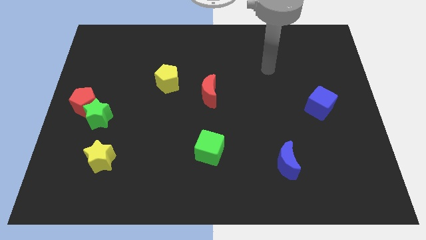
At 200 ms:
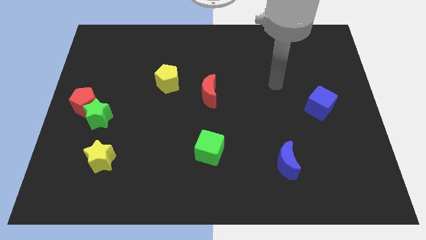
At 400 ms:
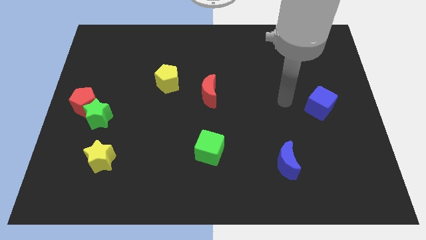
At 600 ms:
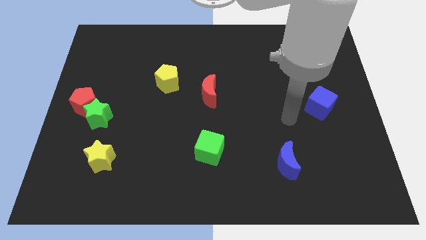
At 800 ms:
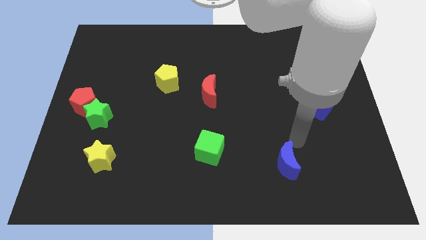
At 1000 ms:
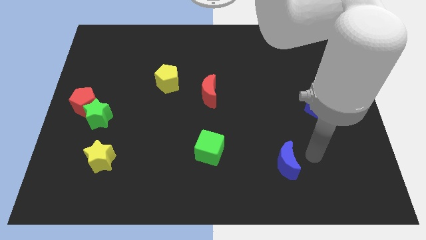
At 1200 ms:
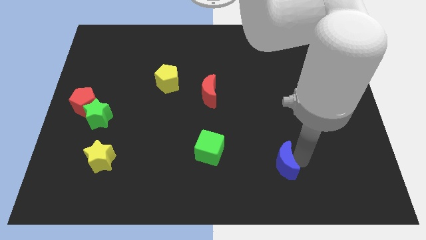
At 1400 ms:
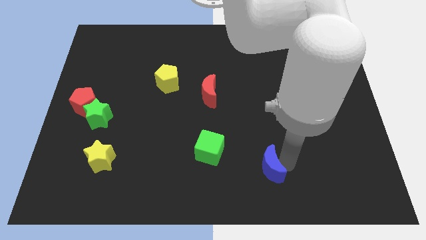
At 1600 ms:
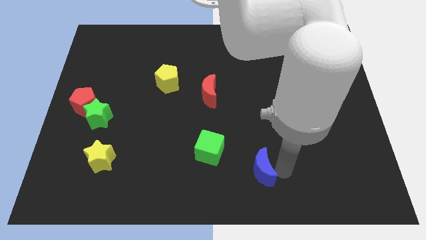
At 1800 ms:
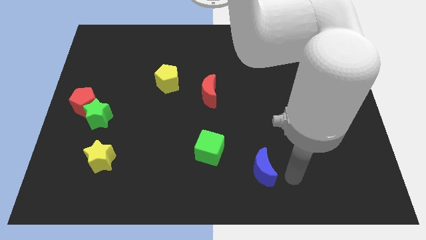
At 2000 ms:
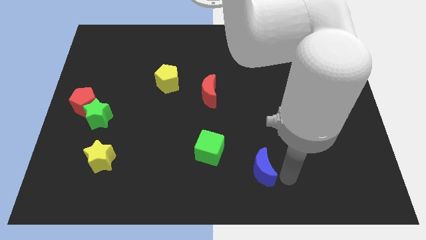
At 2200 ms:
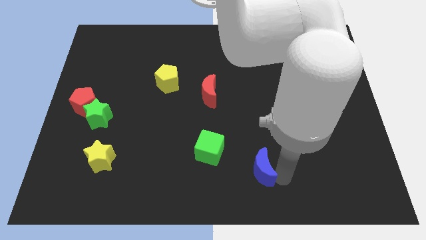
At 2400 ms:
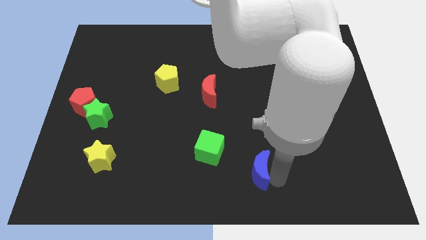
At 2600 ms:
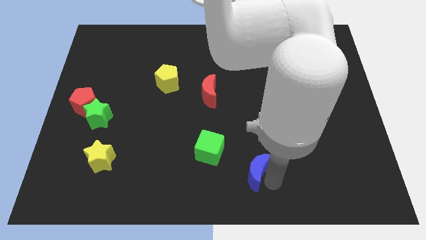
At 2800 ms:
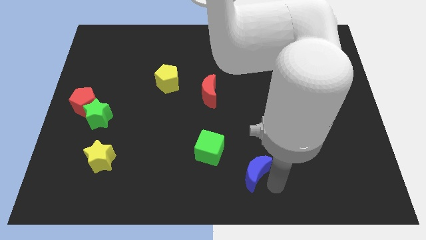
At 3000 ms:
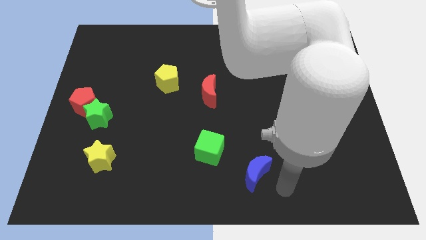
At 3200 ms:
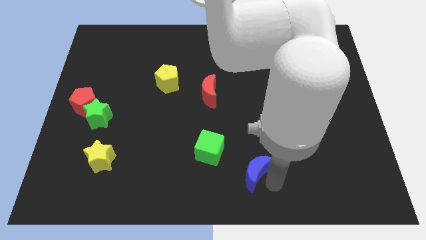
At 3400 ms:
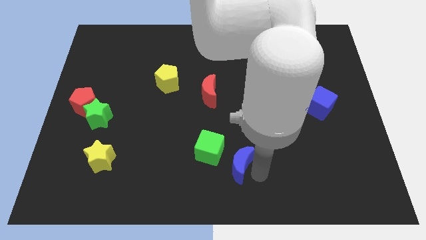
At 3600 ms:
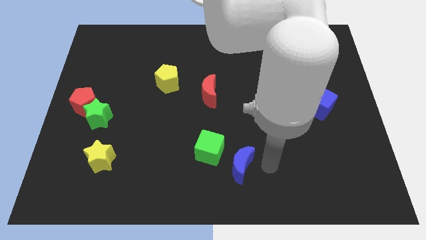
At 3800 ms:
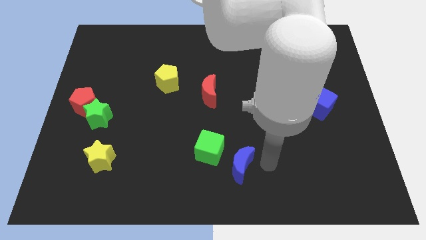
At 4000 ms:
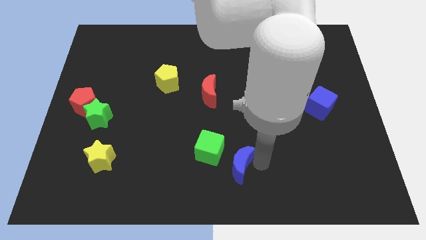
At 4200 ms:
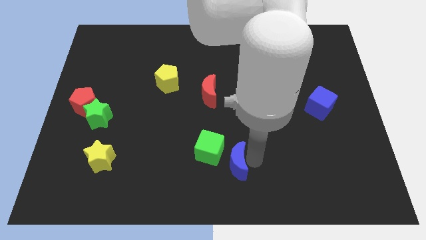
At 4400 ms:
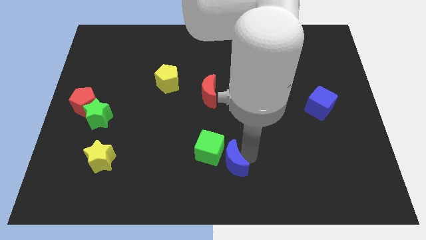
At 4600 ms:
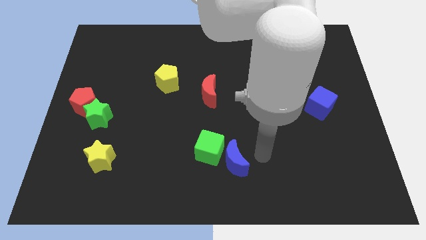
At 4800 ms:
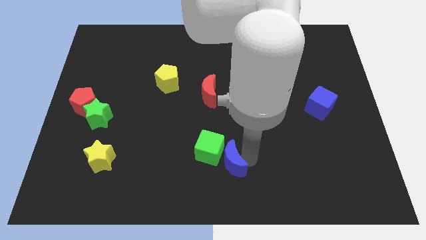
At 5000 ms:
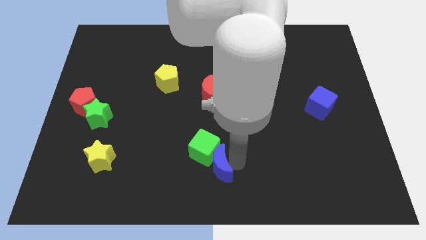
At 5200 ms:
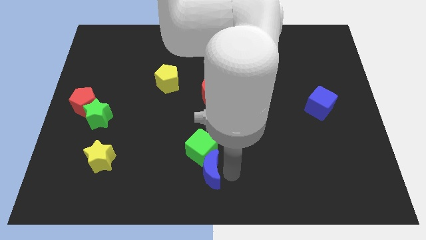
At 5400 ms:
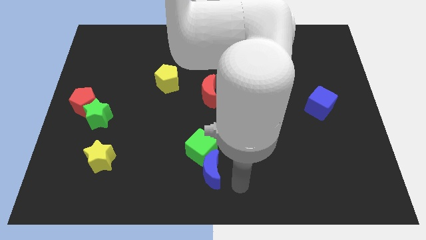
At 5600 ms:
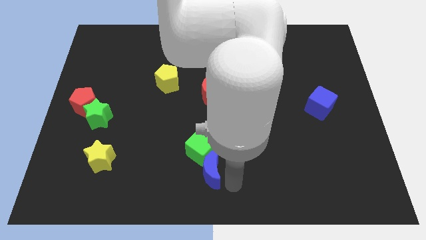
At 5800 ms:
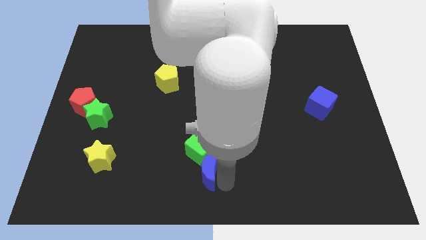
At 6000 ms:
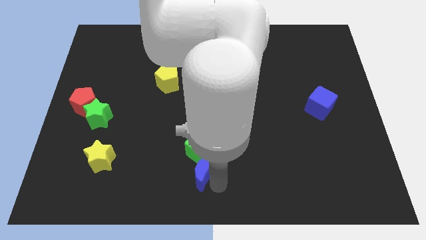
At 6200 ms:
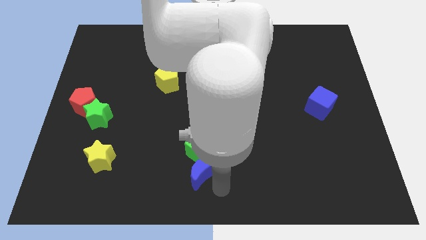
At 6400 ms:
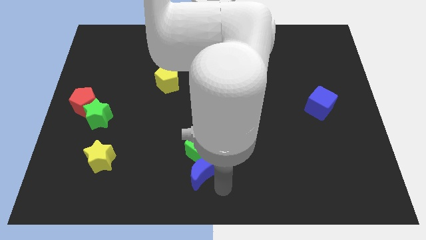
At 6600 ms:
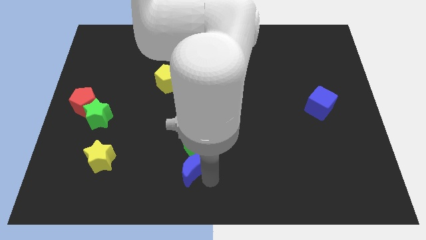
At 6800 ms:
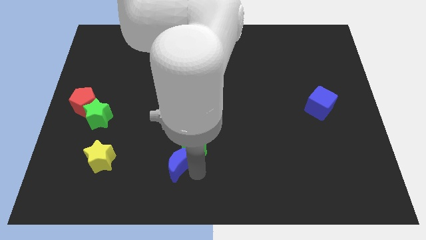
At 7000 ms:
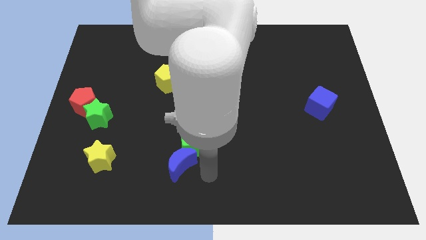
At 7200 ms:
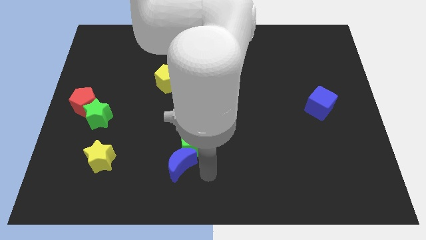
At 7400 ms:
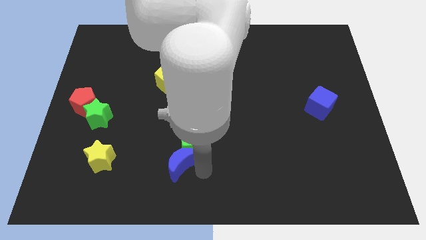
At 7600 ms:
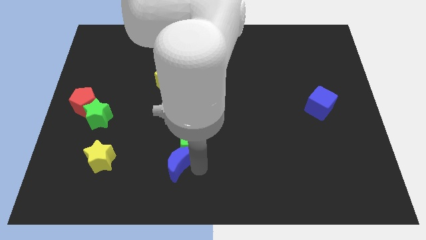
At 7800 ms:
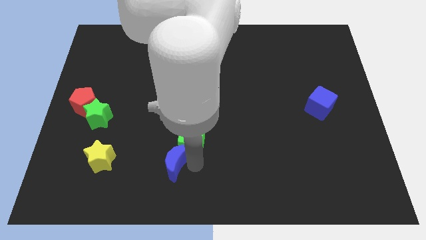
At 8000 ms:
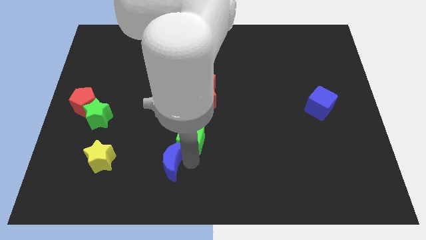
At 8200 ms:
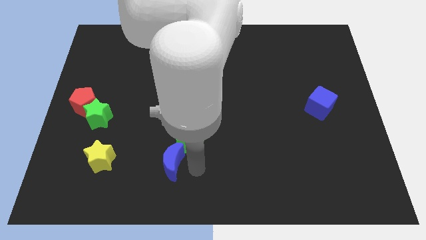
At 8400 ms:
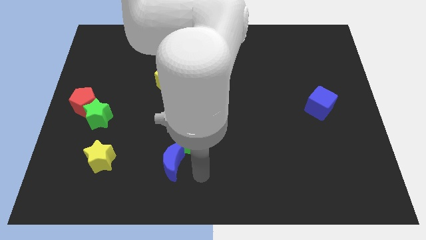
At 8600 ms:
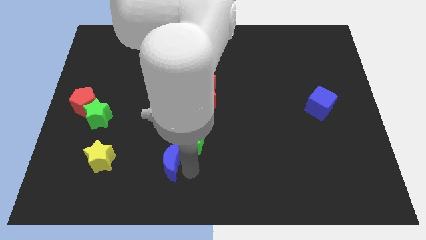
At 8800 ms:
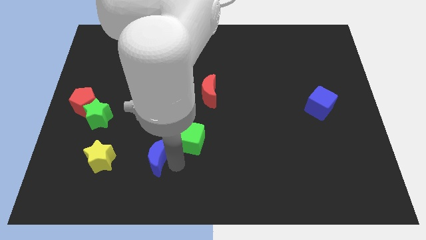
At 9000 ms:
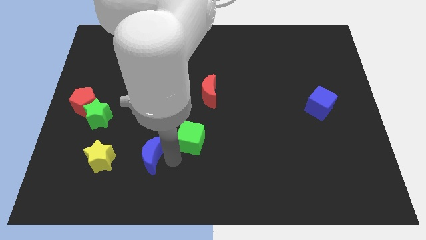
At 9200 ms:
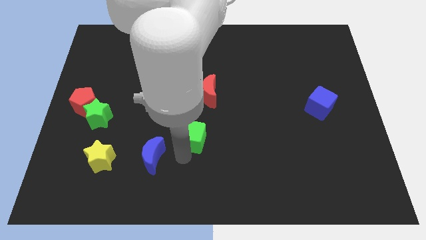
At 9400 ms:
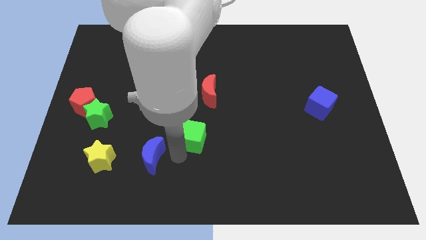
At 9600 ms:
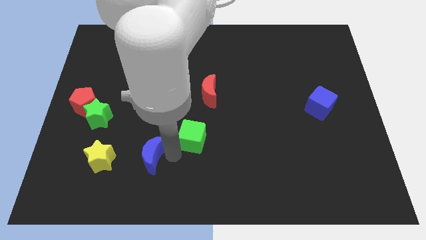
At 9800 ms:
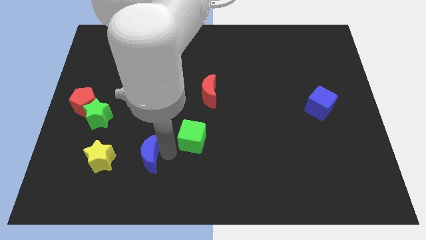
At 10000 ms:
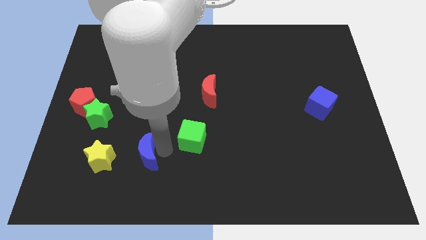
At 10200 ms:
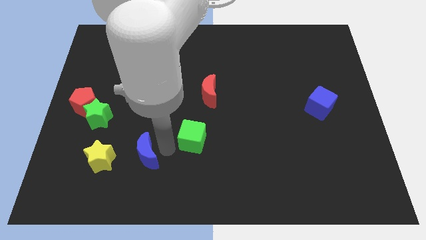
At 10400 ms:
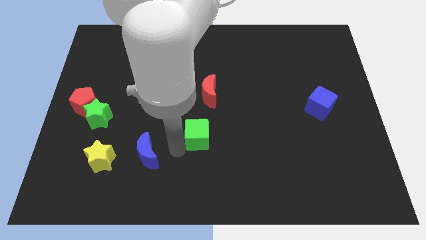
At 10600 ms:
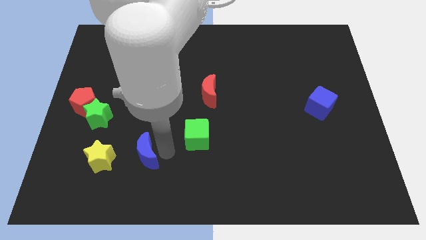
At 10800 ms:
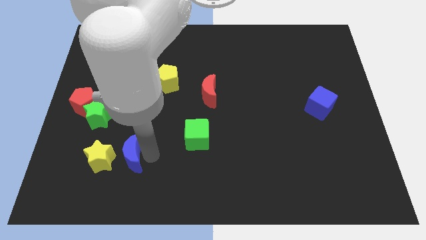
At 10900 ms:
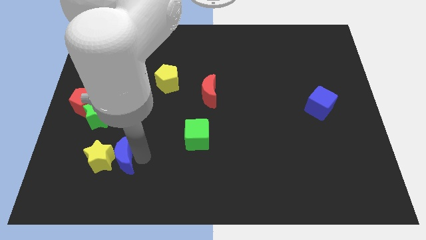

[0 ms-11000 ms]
slide the blue moon close to the yellow star

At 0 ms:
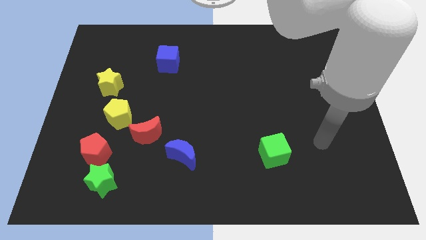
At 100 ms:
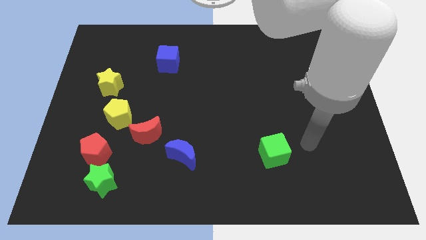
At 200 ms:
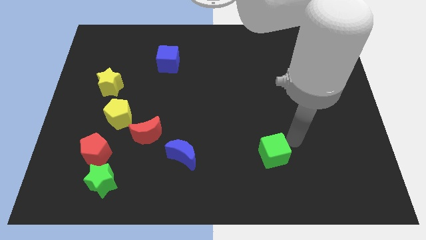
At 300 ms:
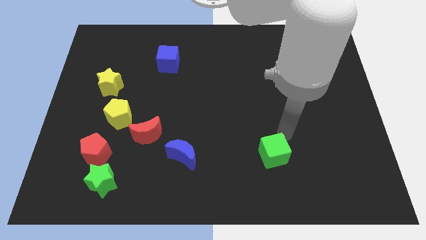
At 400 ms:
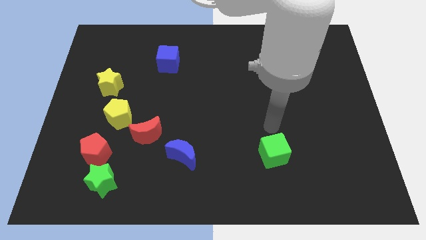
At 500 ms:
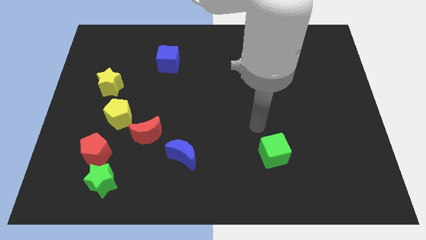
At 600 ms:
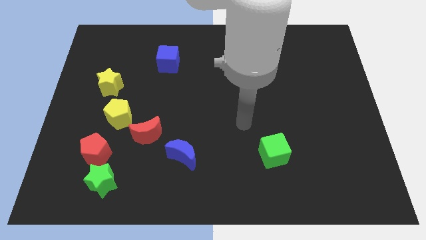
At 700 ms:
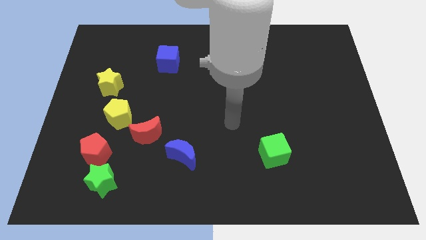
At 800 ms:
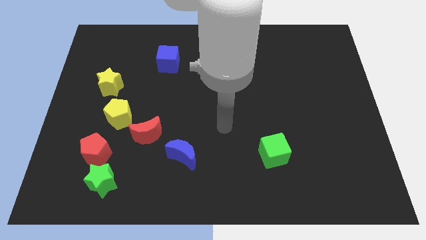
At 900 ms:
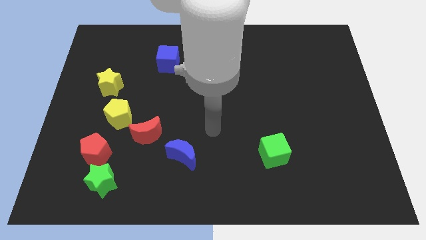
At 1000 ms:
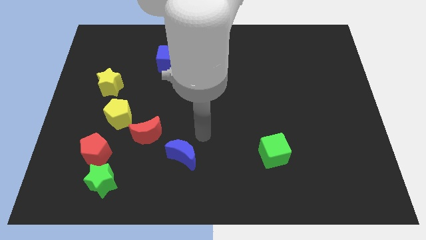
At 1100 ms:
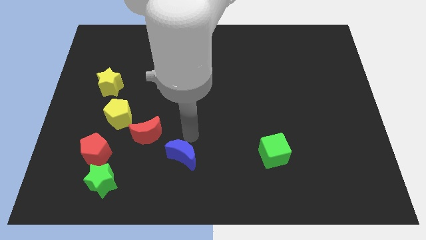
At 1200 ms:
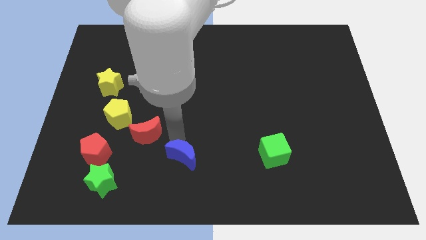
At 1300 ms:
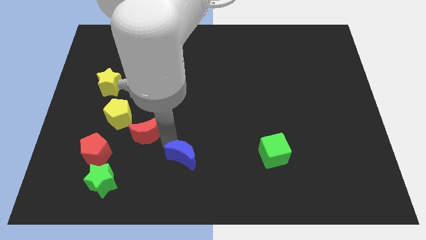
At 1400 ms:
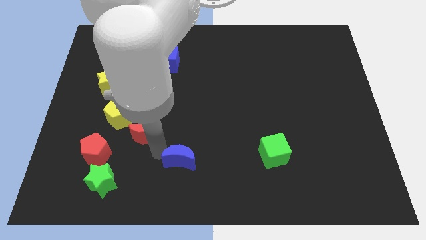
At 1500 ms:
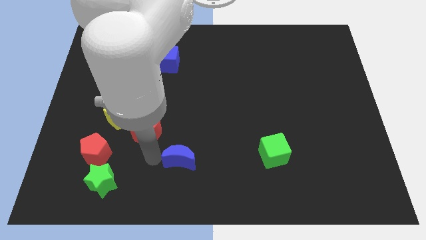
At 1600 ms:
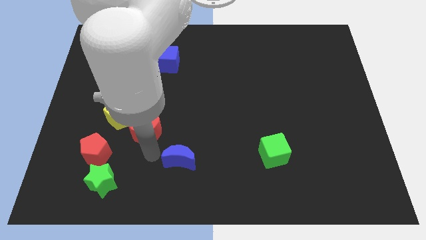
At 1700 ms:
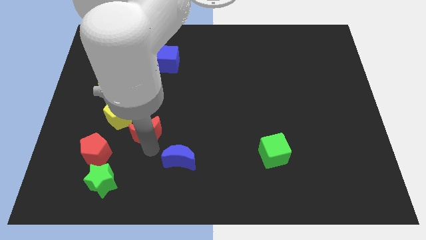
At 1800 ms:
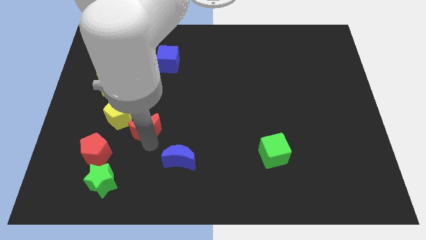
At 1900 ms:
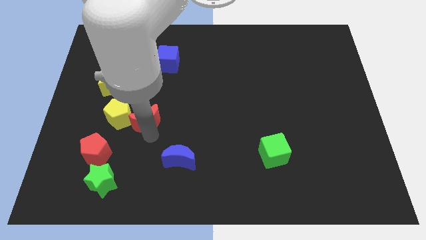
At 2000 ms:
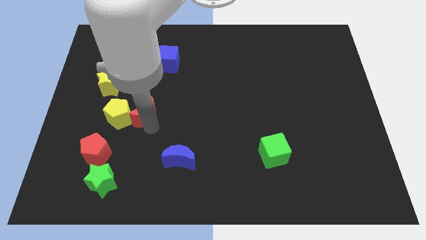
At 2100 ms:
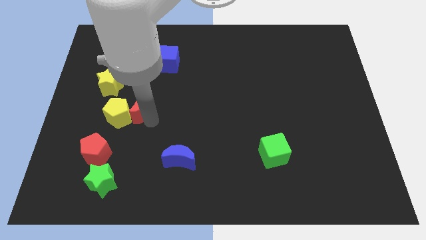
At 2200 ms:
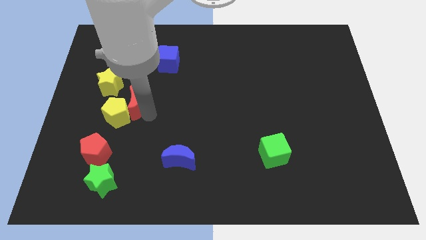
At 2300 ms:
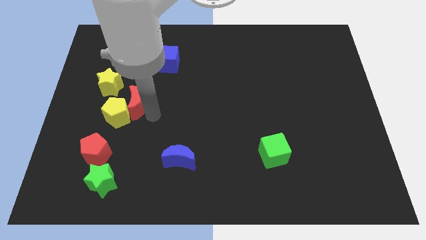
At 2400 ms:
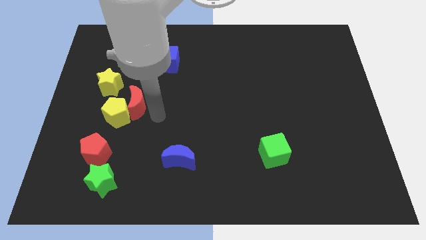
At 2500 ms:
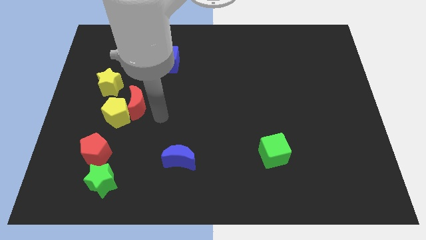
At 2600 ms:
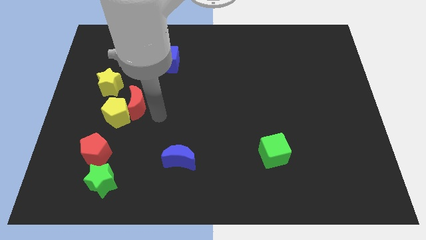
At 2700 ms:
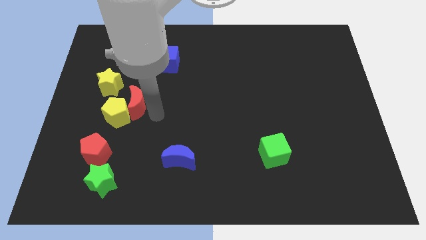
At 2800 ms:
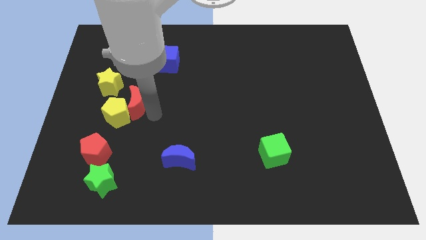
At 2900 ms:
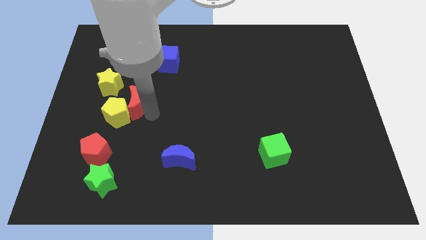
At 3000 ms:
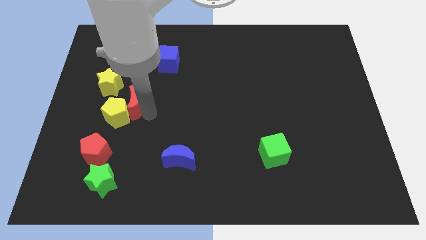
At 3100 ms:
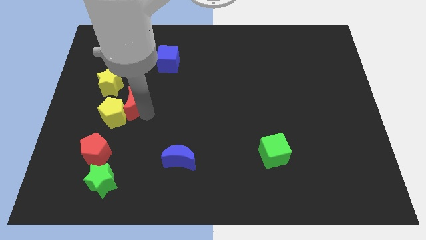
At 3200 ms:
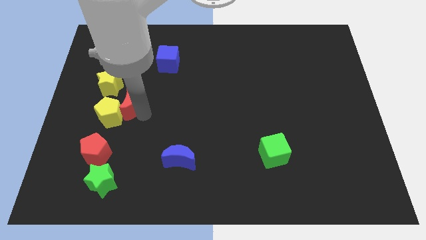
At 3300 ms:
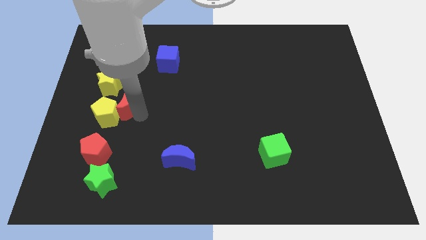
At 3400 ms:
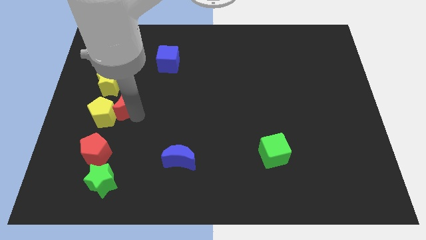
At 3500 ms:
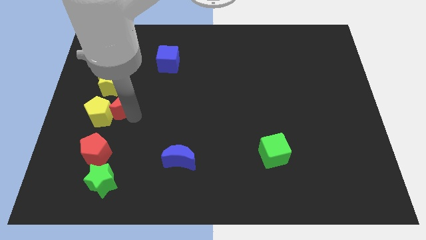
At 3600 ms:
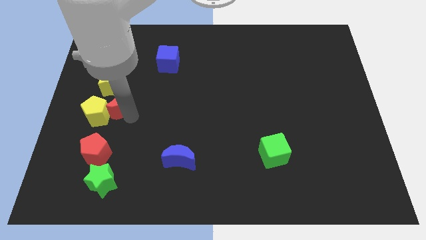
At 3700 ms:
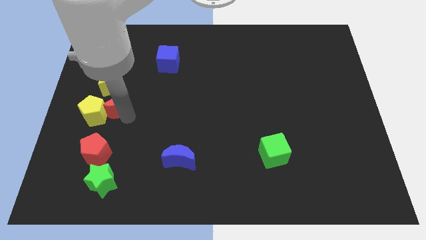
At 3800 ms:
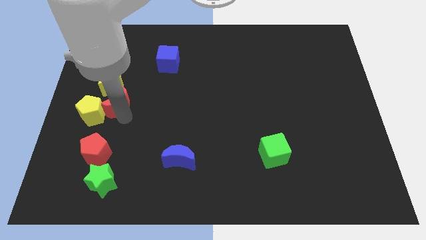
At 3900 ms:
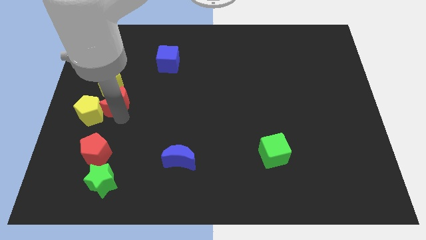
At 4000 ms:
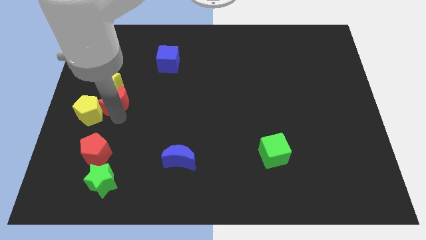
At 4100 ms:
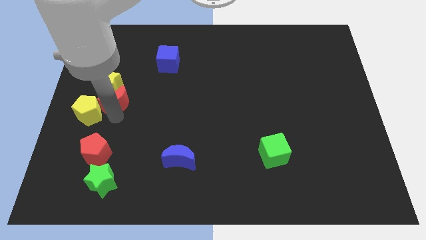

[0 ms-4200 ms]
slide the red moon next to the yellow star
